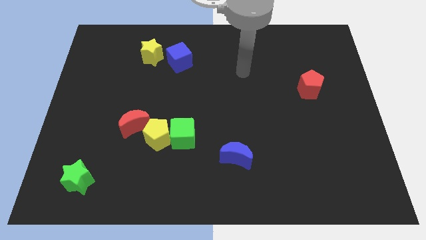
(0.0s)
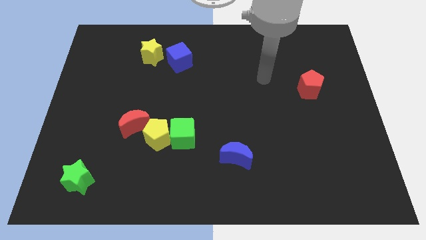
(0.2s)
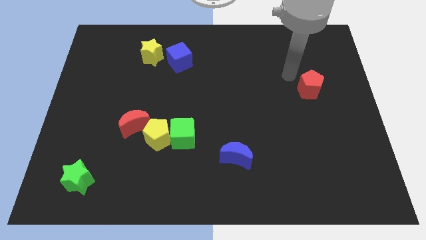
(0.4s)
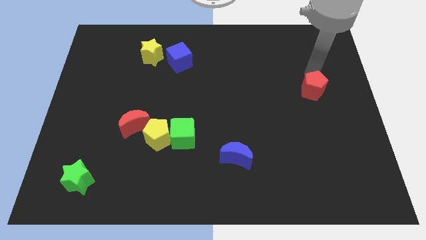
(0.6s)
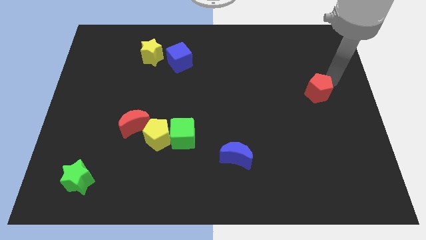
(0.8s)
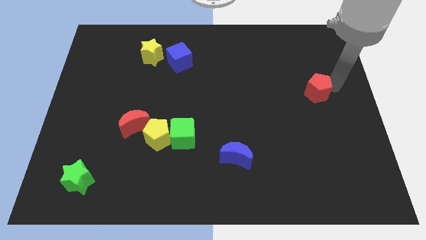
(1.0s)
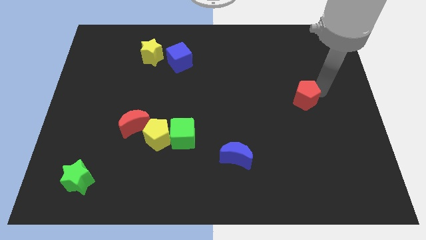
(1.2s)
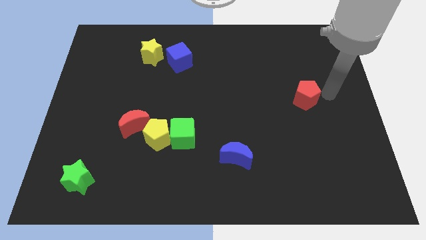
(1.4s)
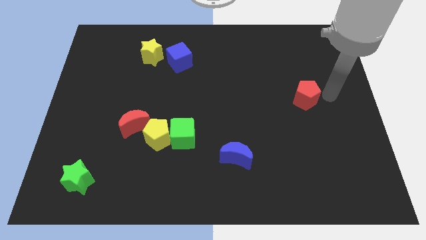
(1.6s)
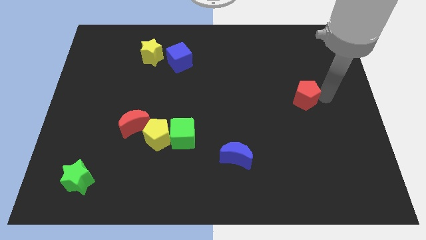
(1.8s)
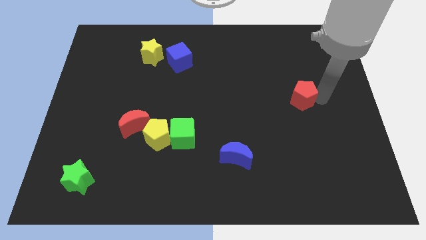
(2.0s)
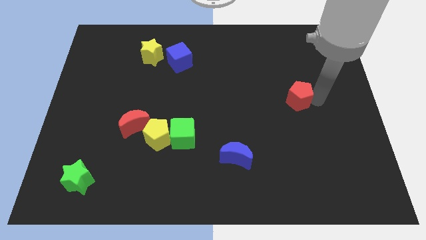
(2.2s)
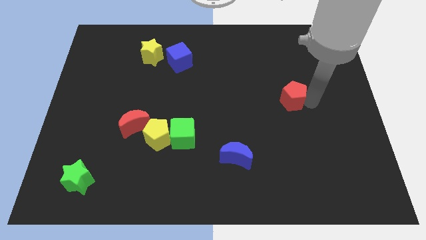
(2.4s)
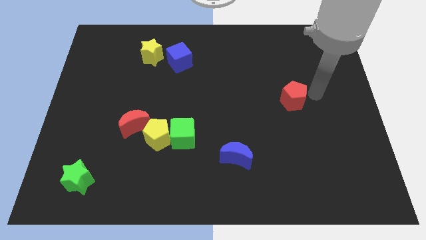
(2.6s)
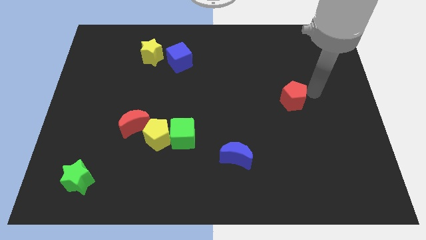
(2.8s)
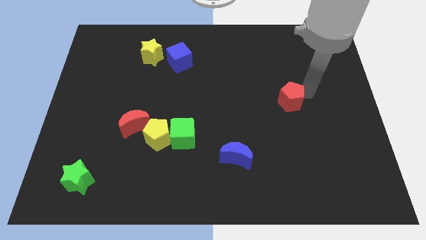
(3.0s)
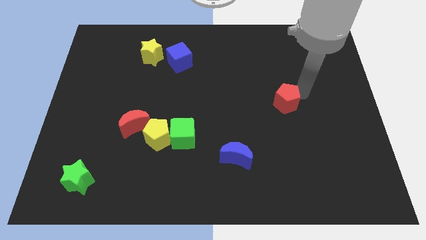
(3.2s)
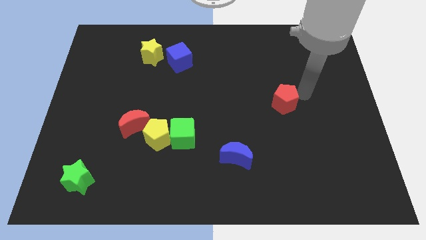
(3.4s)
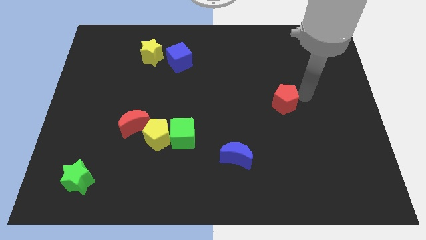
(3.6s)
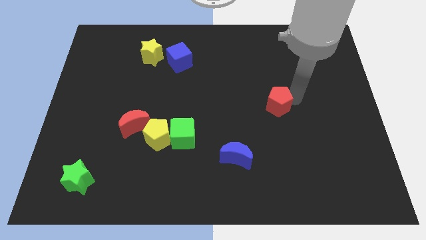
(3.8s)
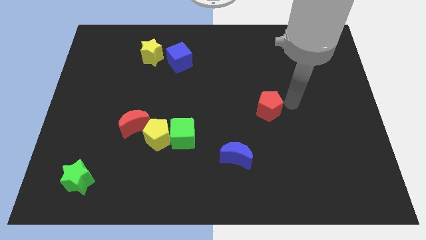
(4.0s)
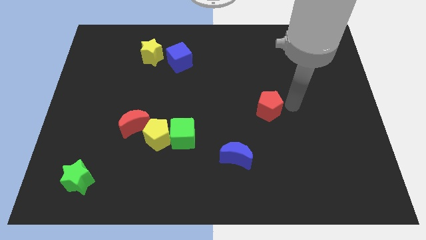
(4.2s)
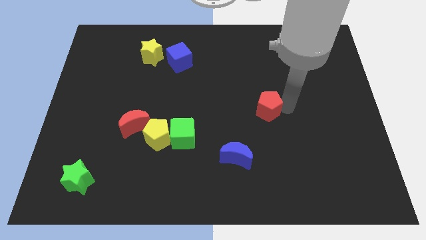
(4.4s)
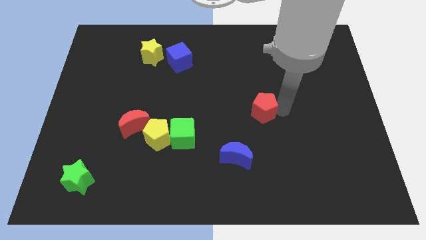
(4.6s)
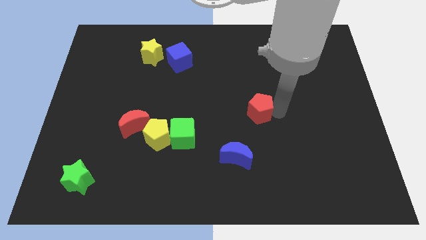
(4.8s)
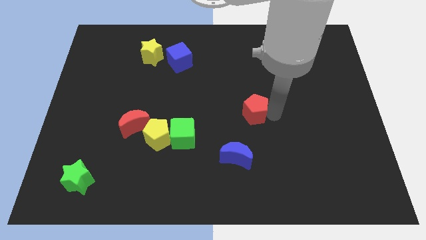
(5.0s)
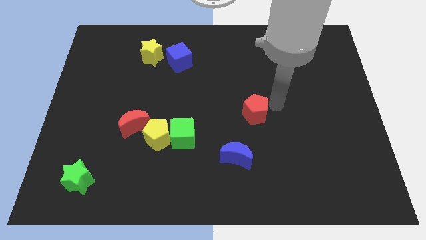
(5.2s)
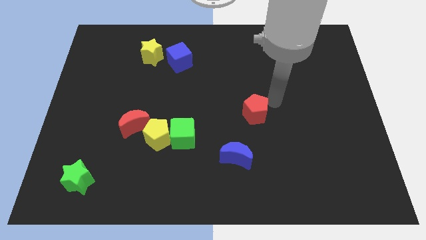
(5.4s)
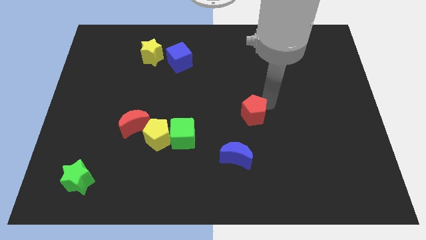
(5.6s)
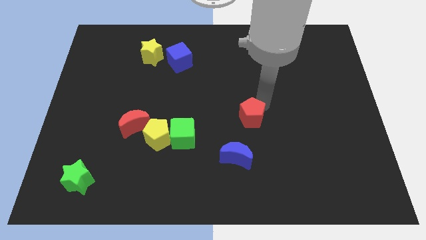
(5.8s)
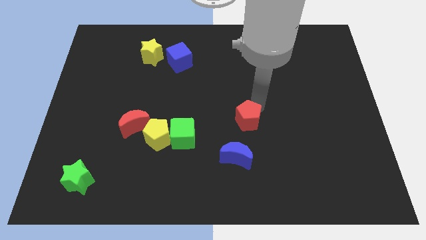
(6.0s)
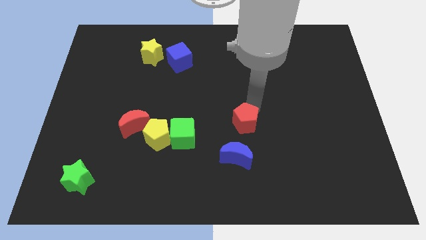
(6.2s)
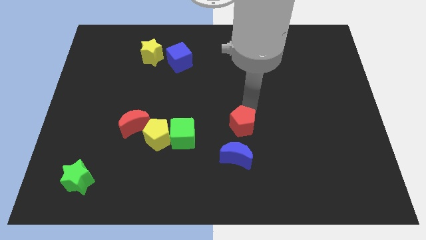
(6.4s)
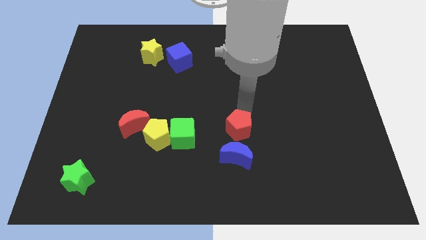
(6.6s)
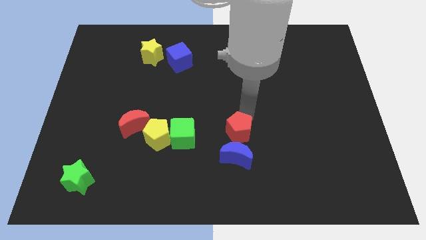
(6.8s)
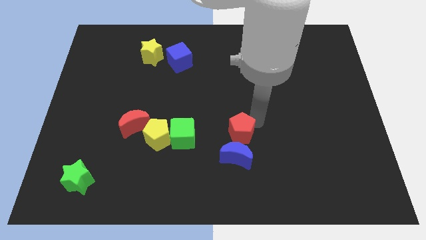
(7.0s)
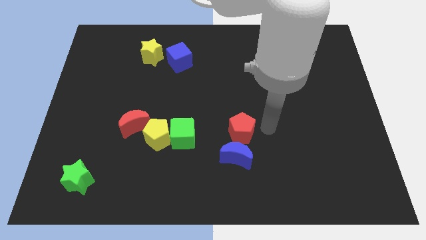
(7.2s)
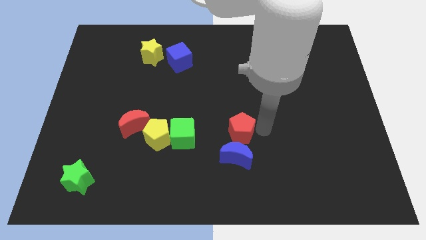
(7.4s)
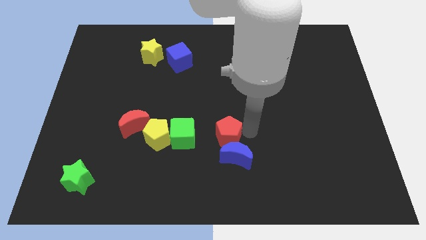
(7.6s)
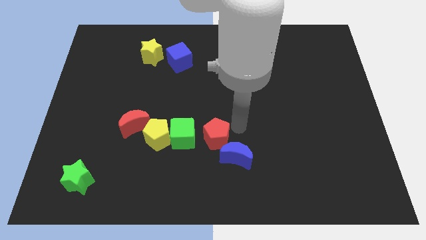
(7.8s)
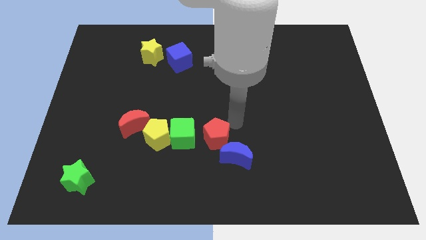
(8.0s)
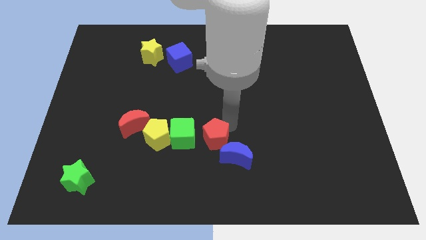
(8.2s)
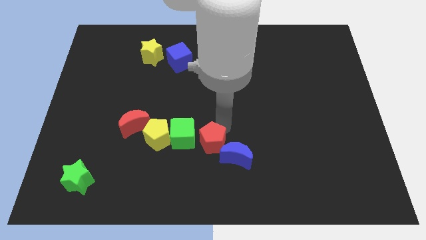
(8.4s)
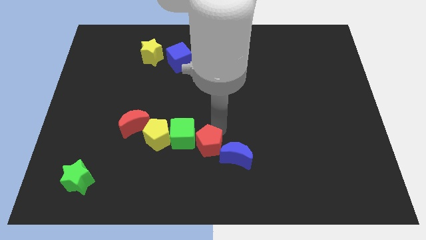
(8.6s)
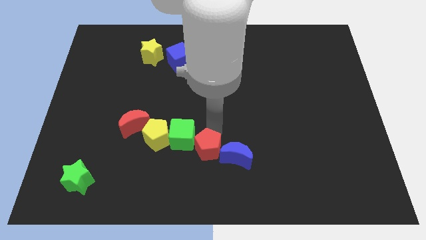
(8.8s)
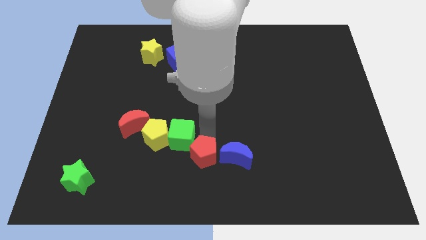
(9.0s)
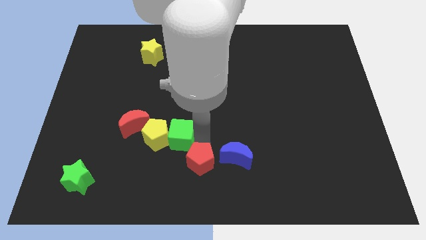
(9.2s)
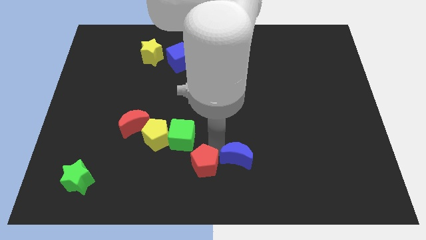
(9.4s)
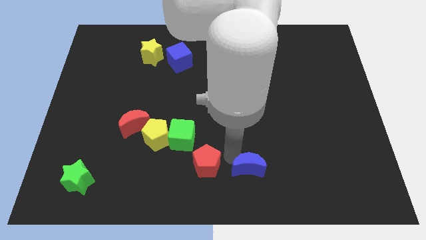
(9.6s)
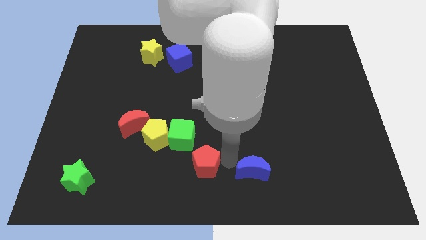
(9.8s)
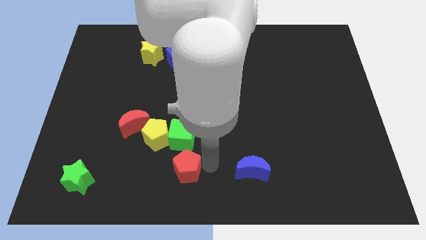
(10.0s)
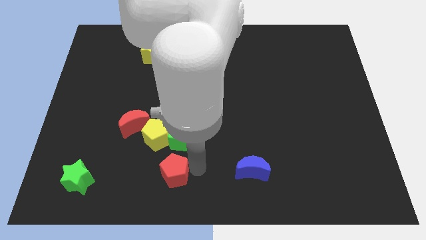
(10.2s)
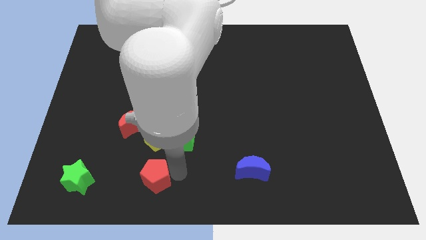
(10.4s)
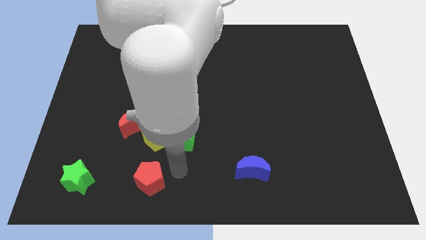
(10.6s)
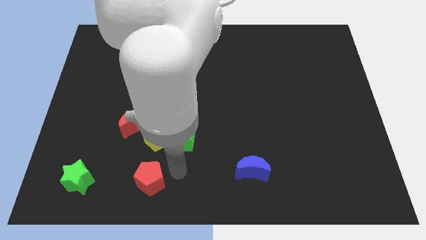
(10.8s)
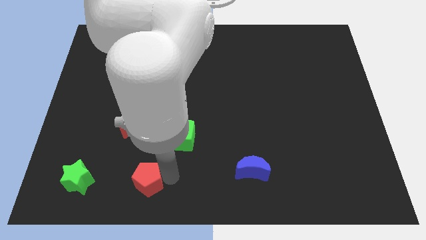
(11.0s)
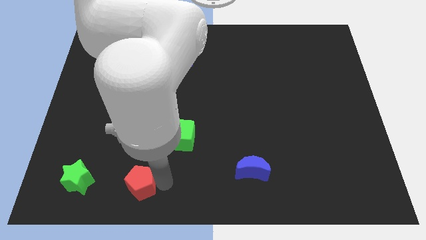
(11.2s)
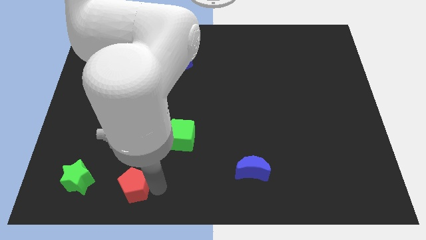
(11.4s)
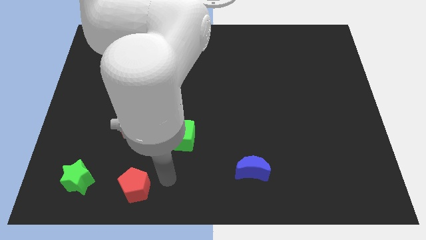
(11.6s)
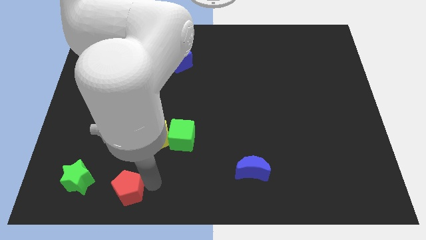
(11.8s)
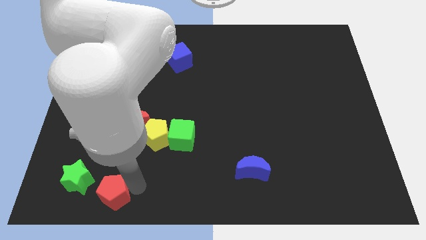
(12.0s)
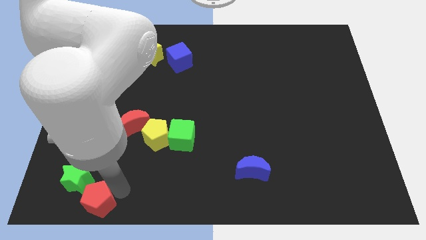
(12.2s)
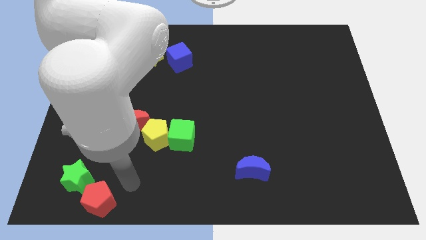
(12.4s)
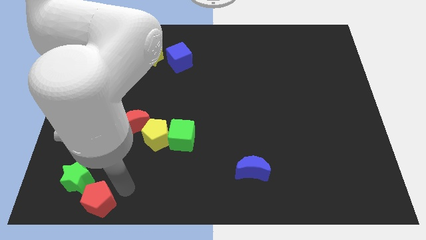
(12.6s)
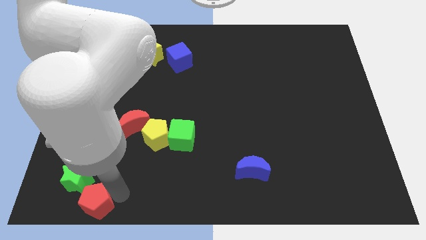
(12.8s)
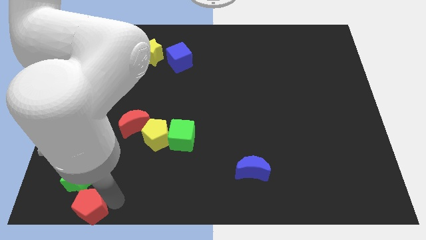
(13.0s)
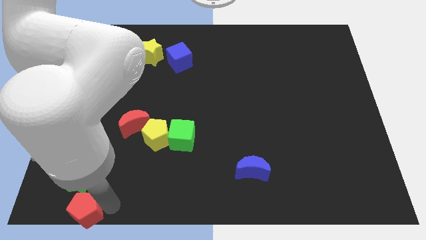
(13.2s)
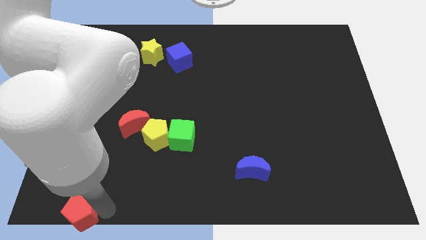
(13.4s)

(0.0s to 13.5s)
put the red pentagon to the bottom left of the board

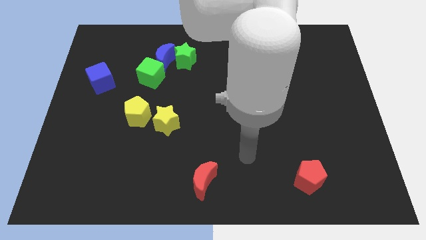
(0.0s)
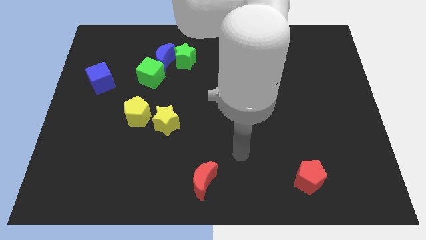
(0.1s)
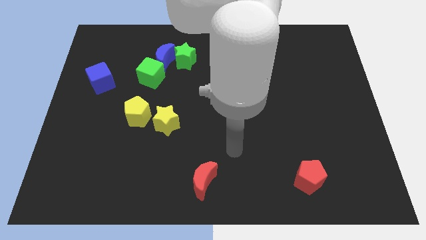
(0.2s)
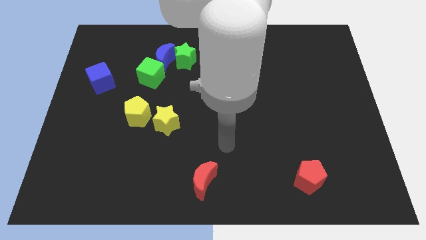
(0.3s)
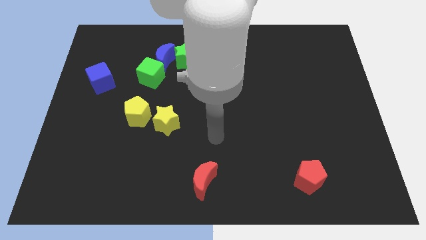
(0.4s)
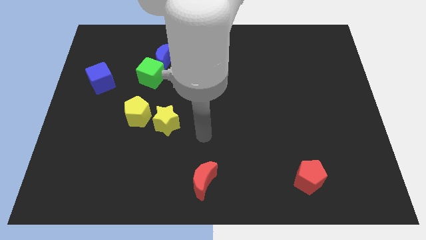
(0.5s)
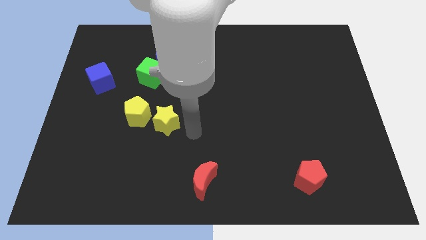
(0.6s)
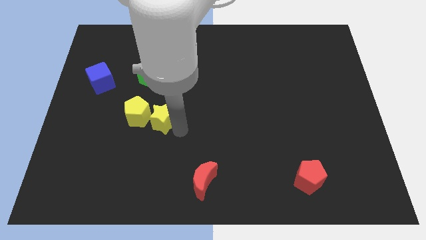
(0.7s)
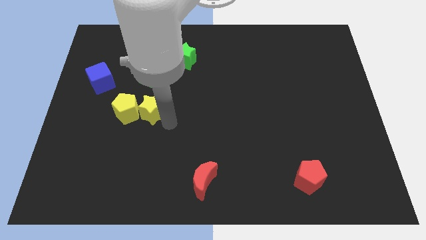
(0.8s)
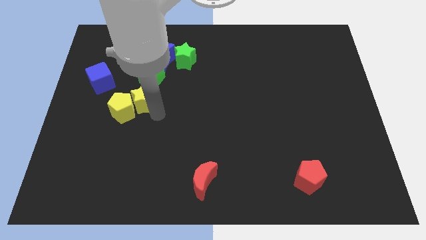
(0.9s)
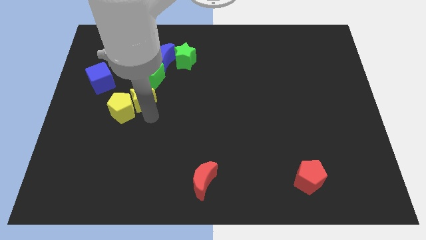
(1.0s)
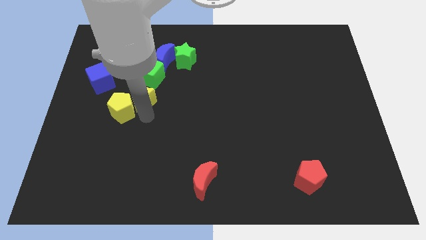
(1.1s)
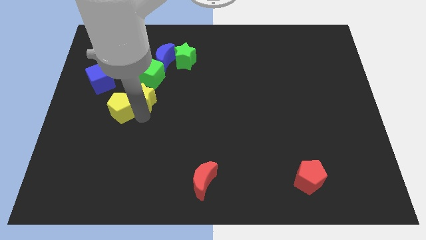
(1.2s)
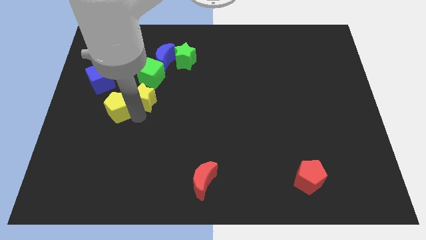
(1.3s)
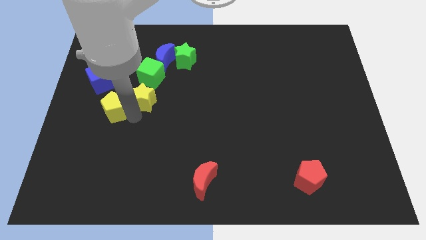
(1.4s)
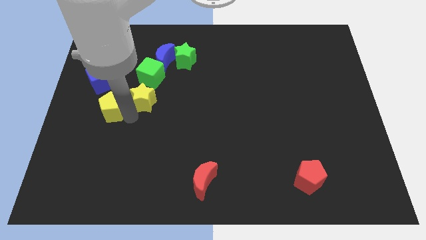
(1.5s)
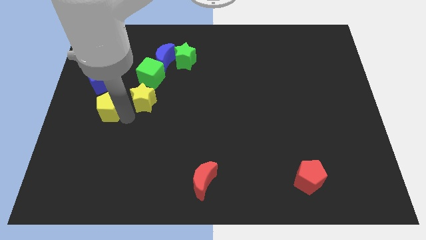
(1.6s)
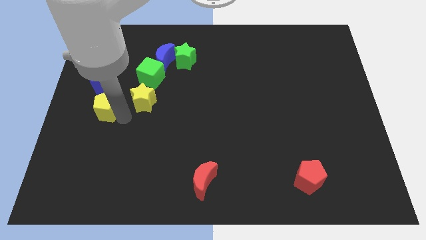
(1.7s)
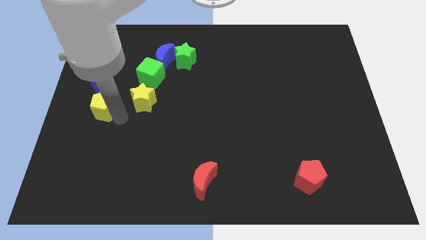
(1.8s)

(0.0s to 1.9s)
move the yellow pentagon to the center left
